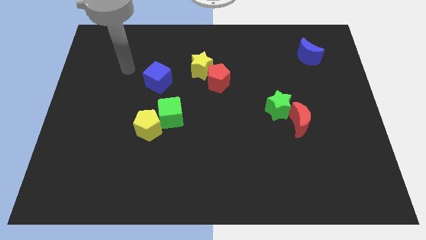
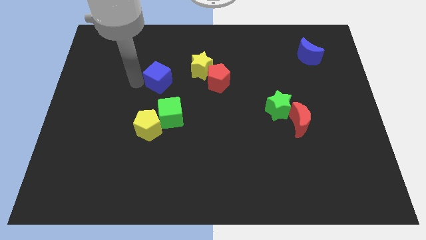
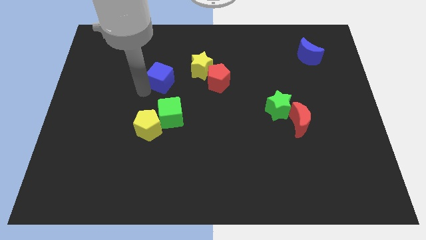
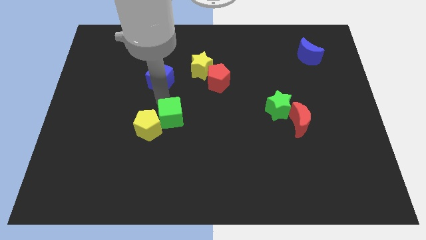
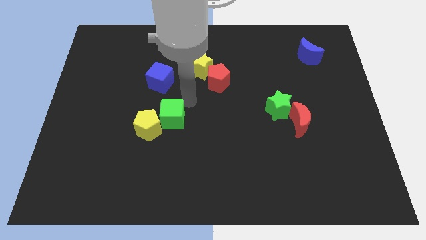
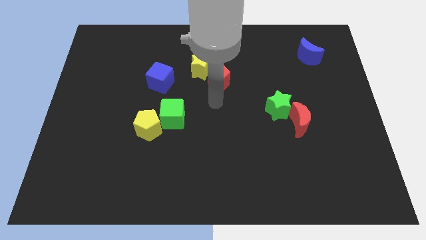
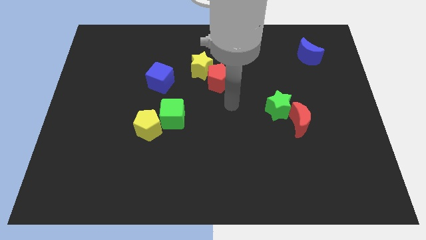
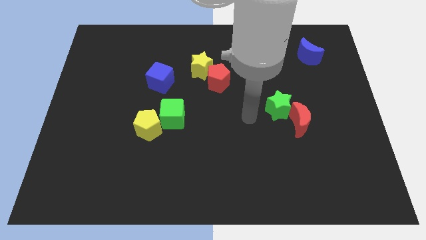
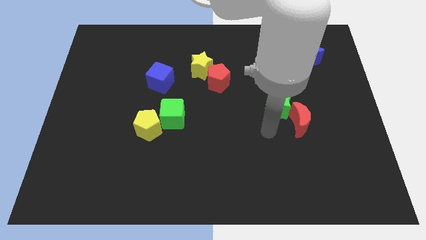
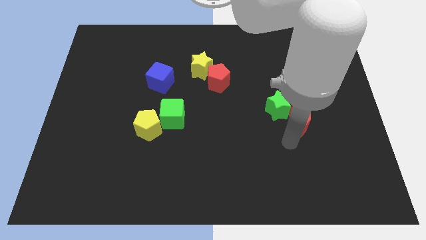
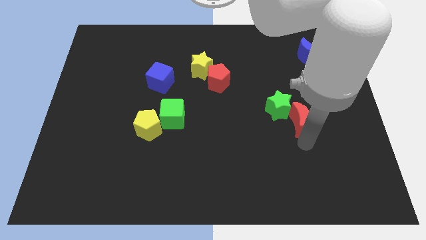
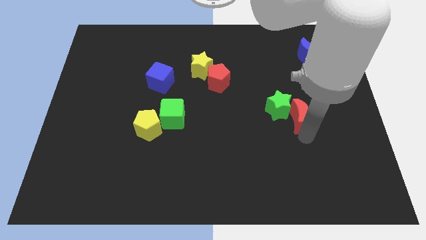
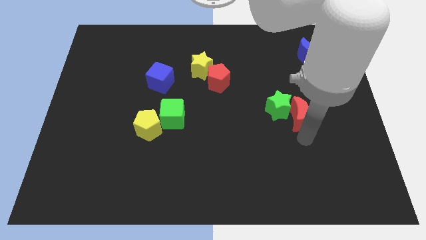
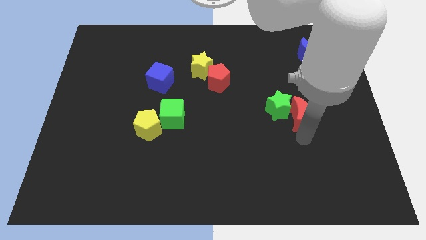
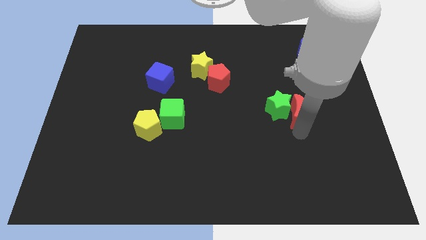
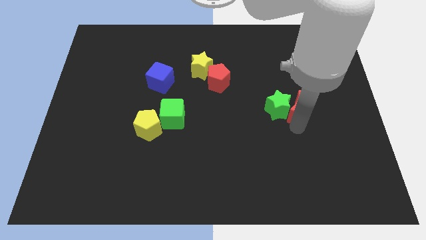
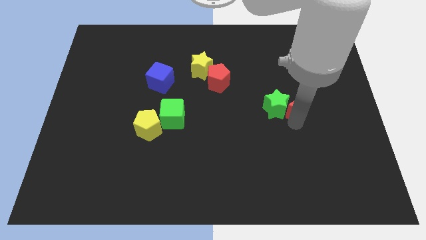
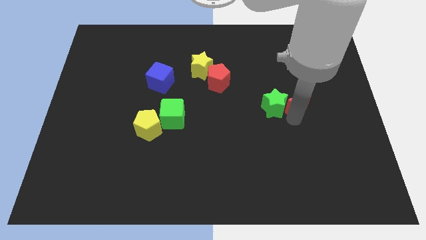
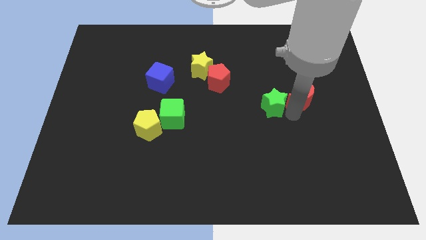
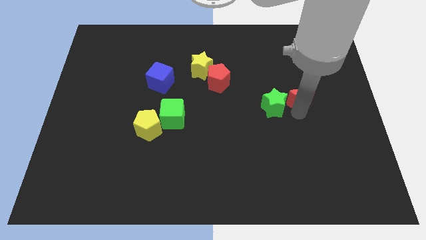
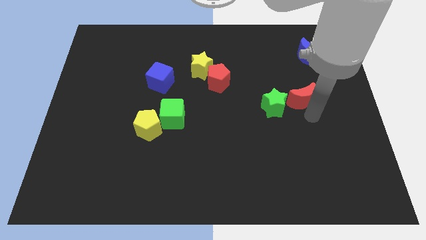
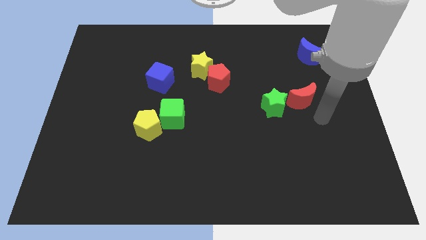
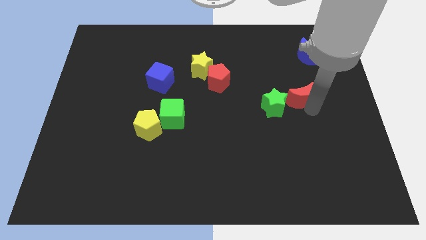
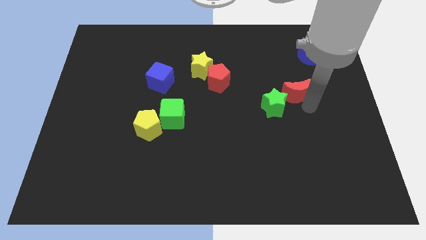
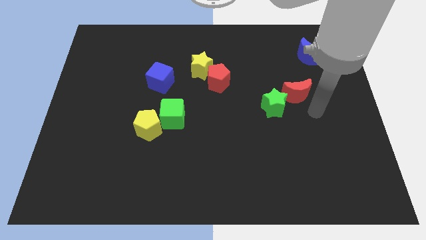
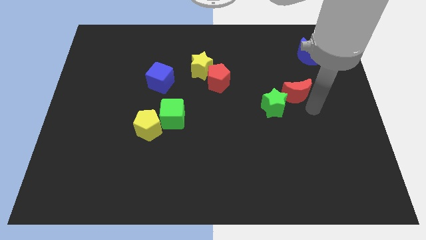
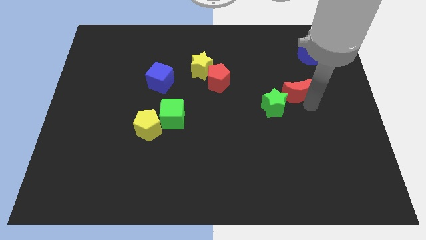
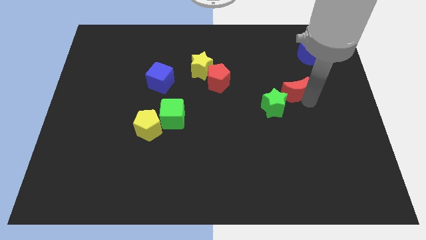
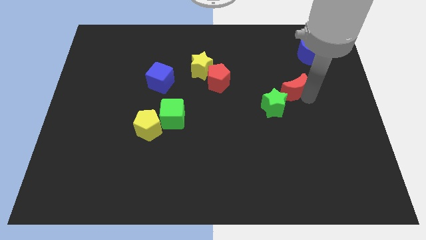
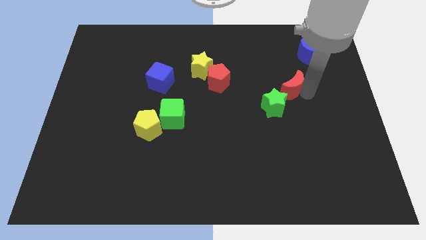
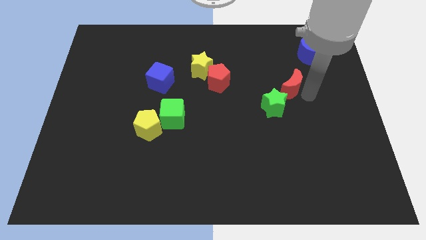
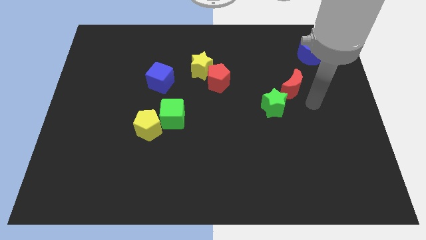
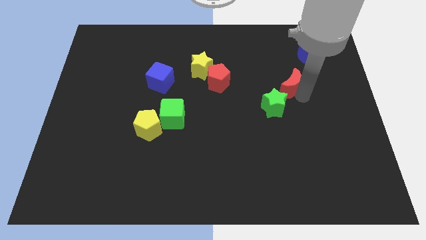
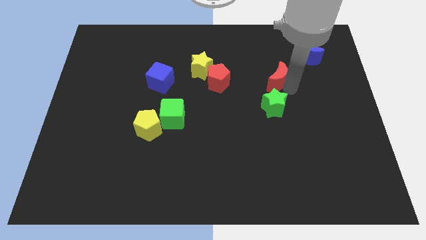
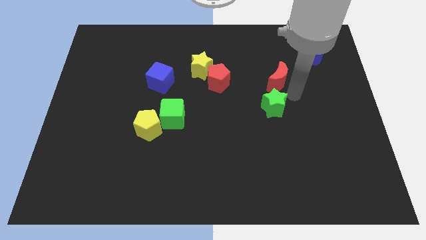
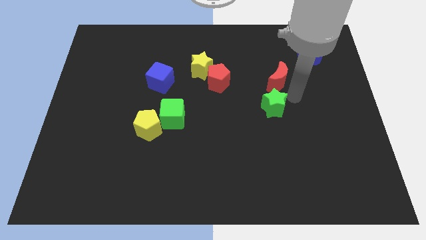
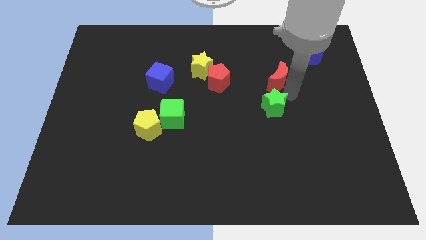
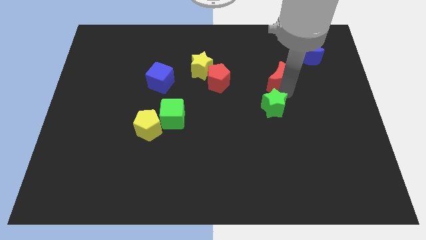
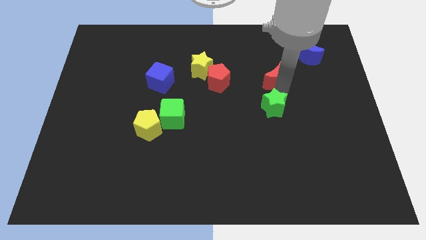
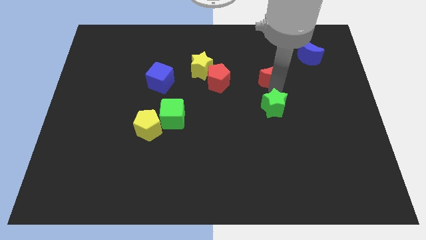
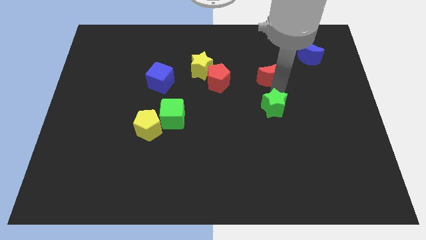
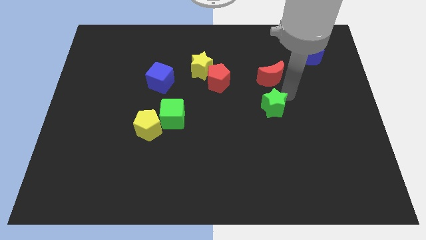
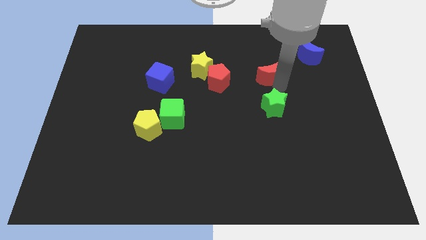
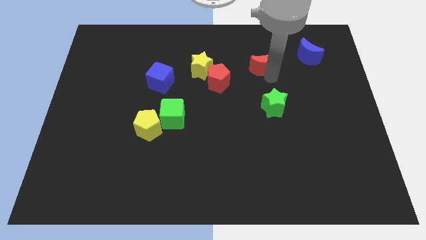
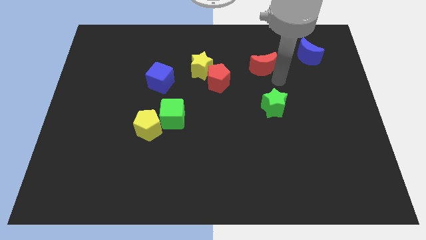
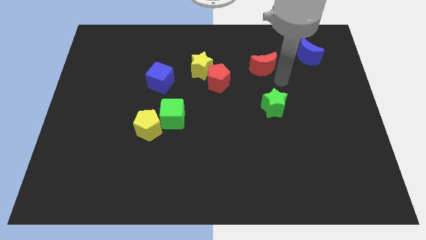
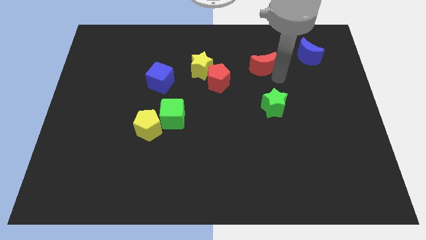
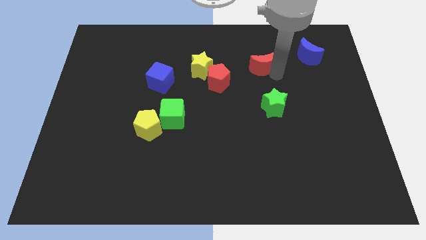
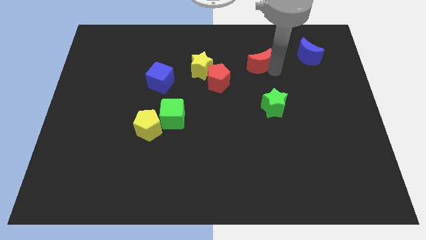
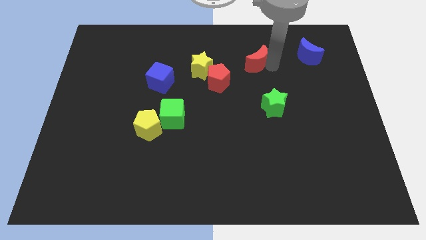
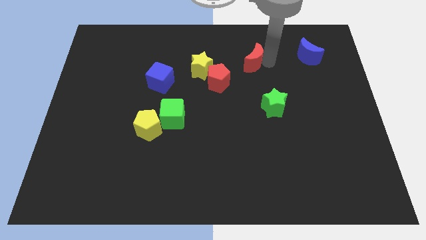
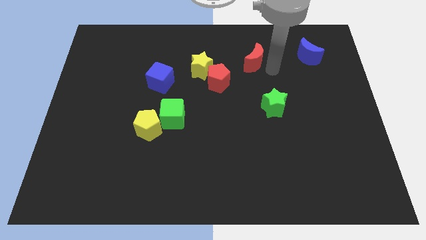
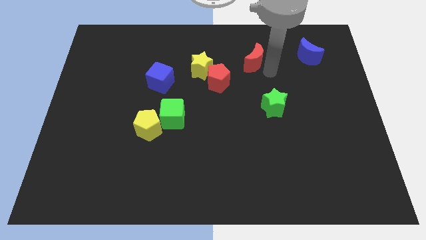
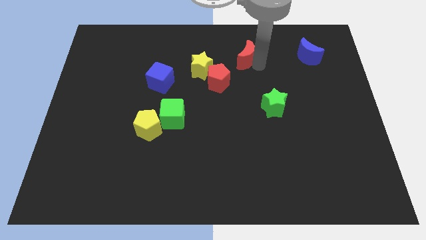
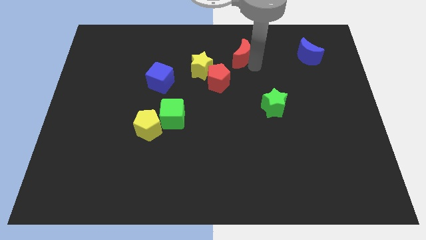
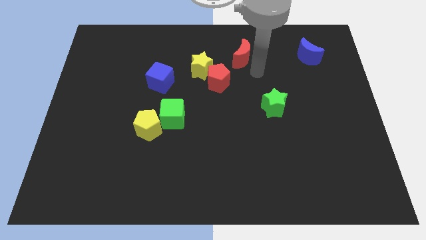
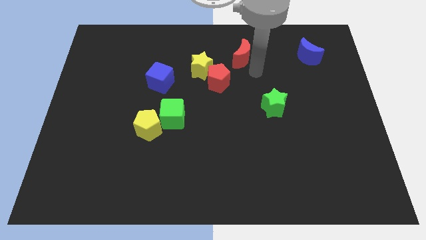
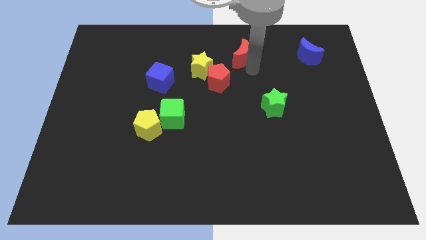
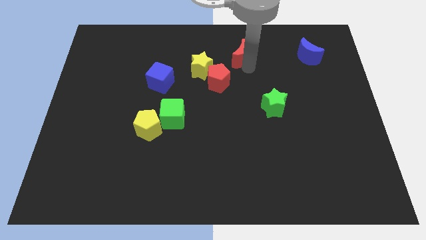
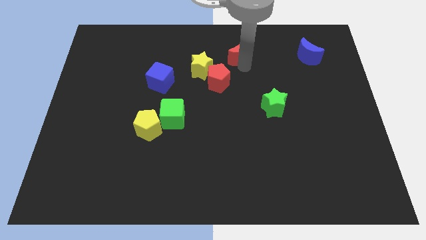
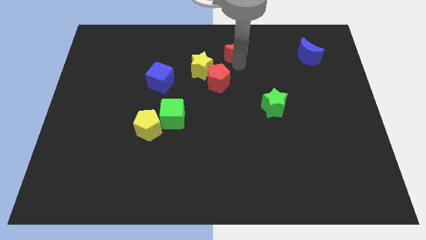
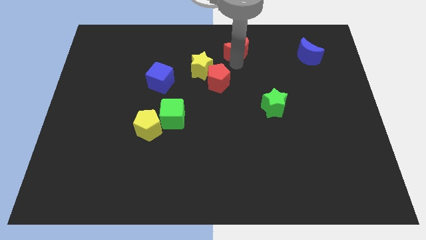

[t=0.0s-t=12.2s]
push the red moon to the top

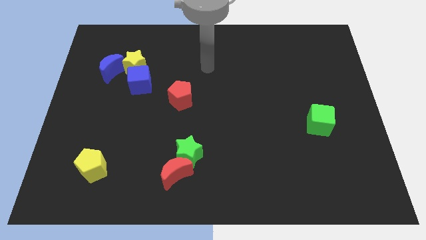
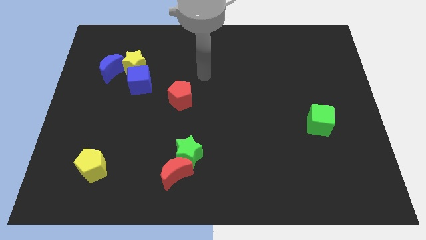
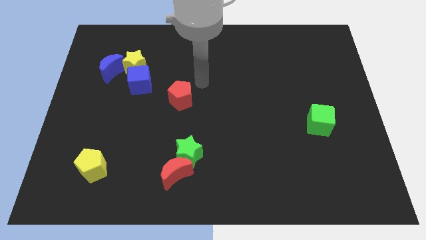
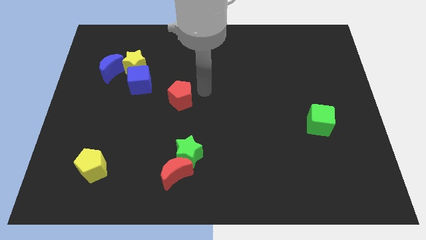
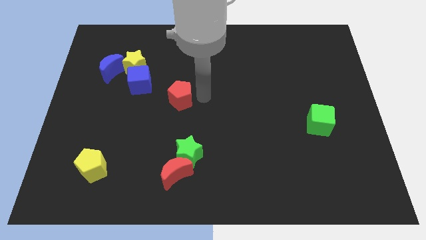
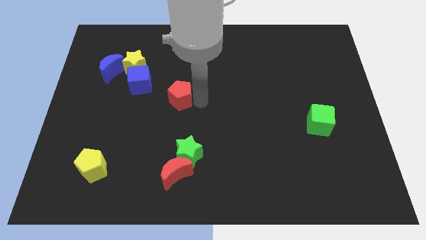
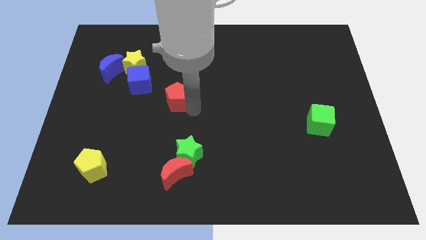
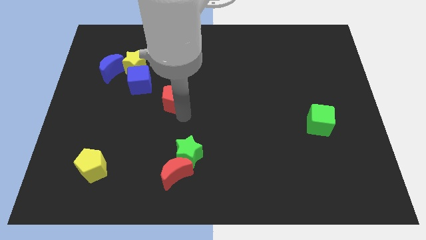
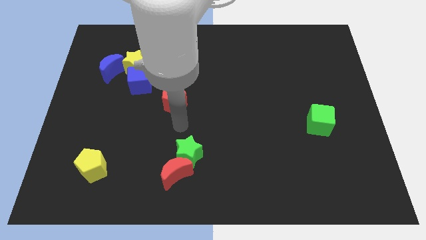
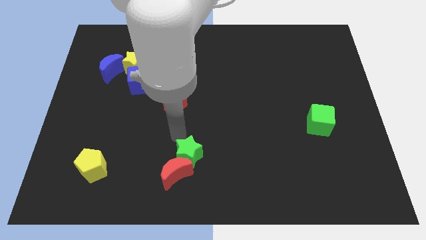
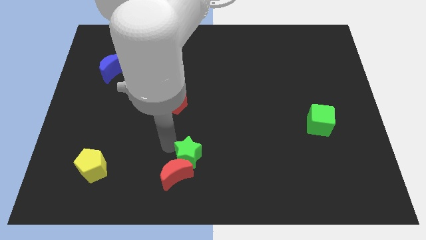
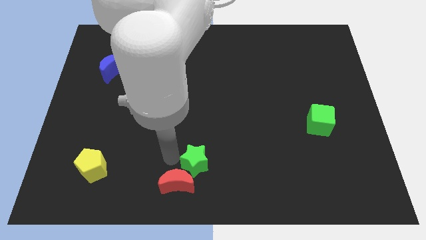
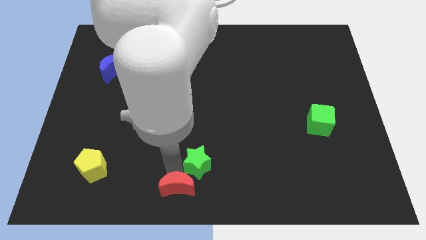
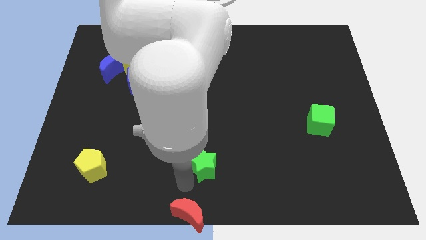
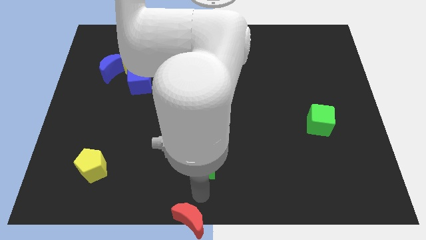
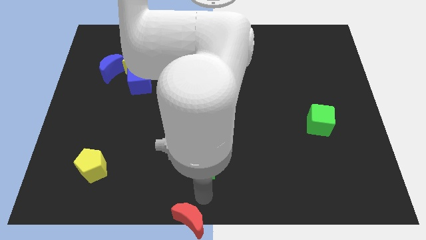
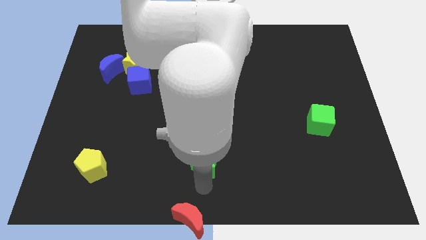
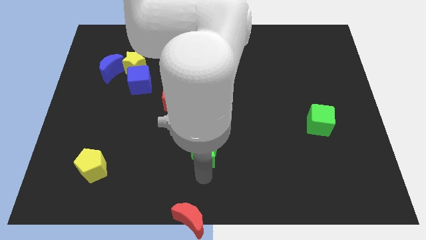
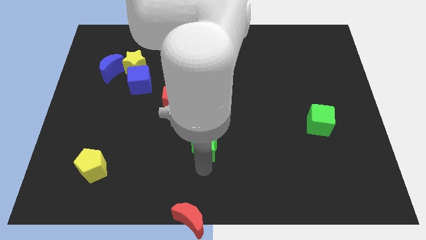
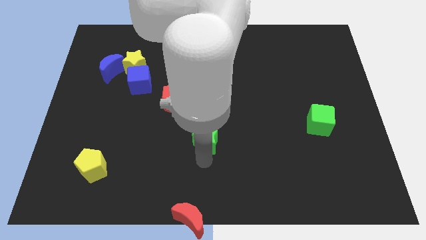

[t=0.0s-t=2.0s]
move the green star to the middle
